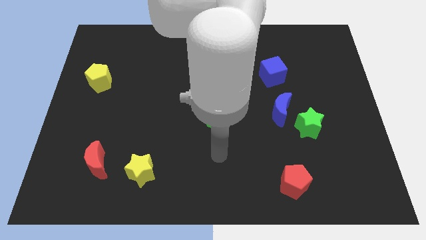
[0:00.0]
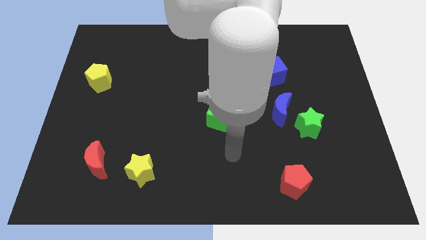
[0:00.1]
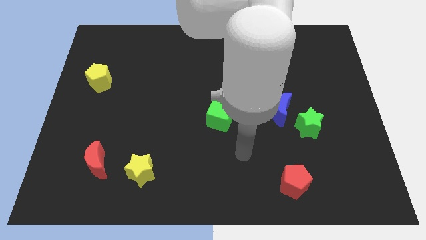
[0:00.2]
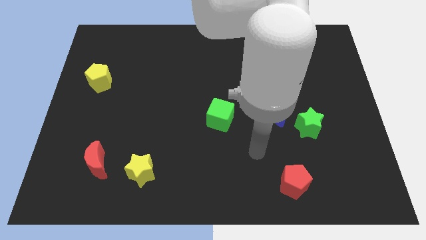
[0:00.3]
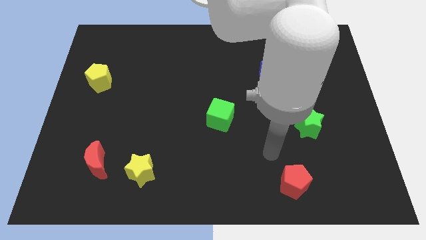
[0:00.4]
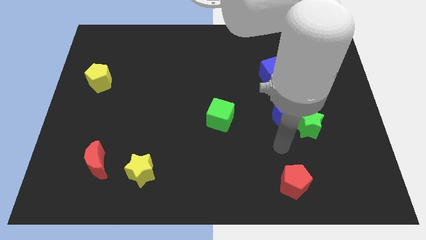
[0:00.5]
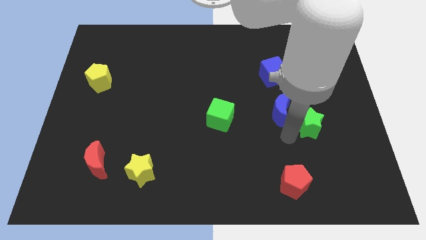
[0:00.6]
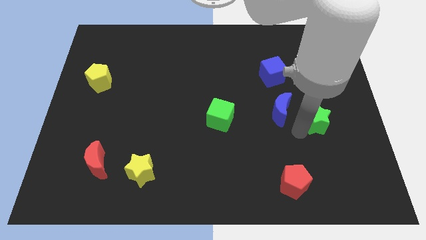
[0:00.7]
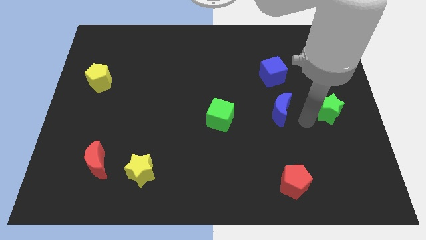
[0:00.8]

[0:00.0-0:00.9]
pull the blue moon apart from the green star

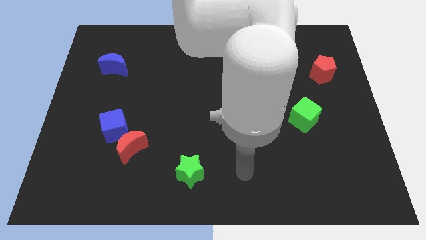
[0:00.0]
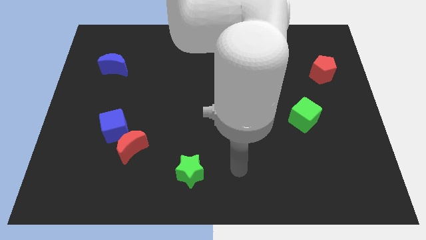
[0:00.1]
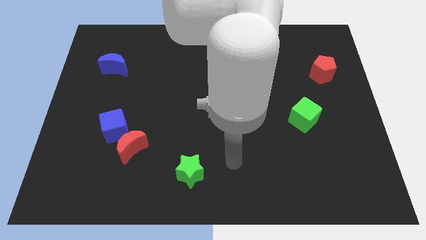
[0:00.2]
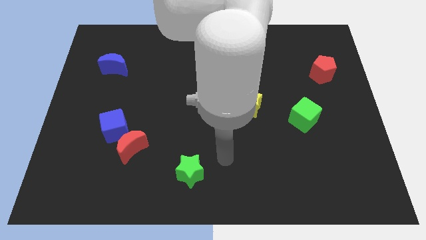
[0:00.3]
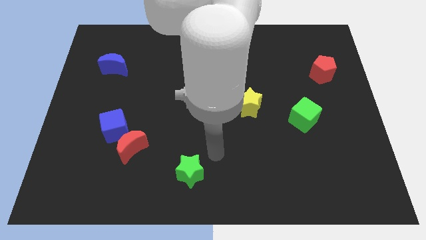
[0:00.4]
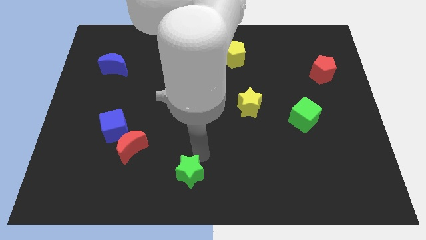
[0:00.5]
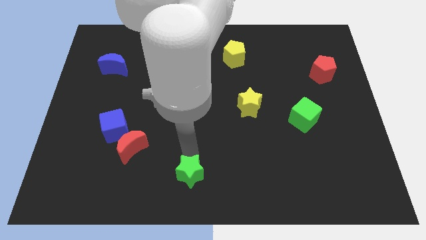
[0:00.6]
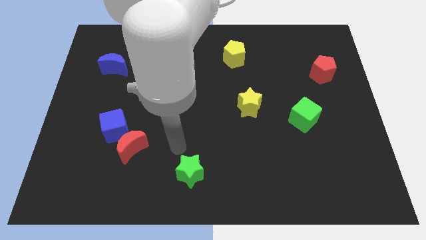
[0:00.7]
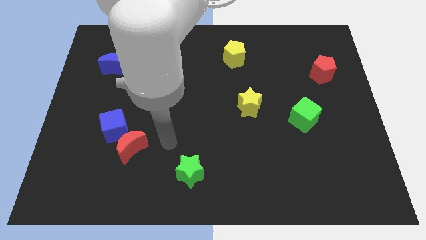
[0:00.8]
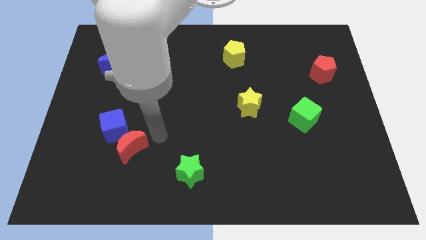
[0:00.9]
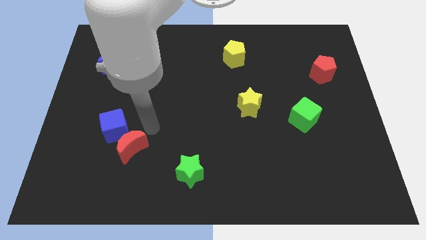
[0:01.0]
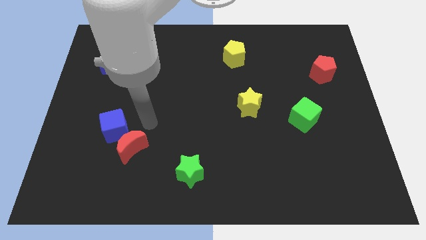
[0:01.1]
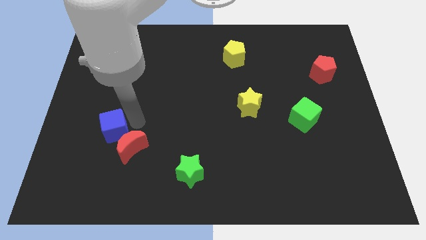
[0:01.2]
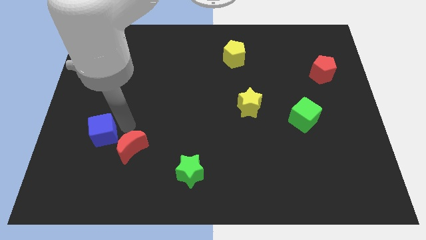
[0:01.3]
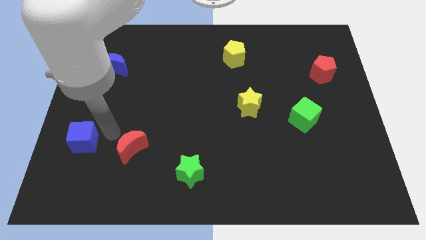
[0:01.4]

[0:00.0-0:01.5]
separate the red moon from the blue cube

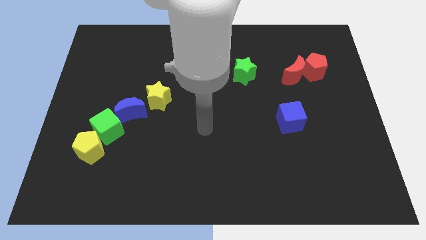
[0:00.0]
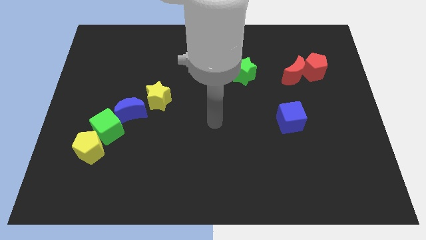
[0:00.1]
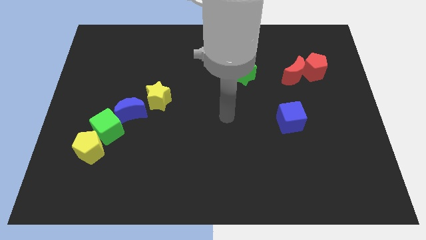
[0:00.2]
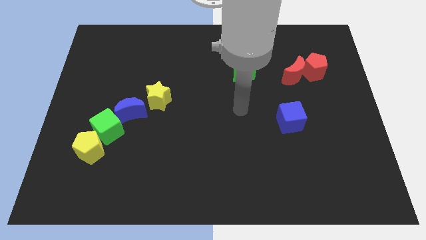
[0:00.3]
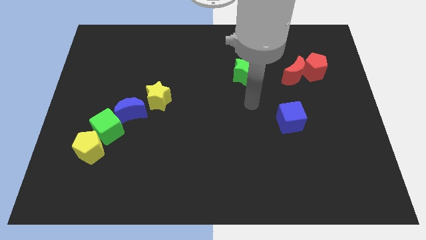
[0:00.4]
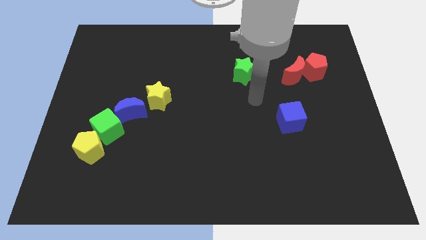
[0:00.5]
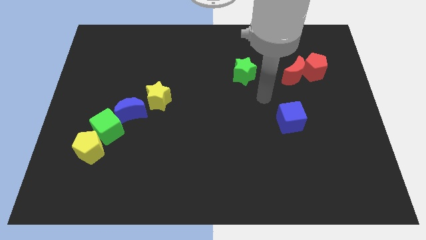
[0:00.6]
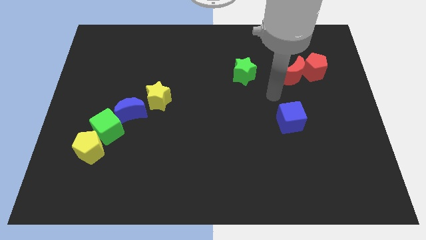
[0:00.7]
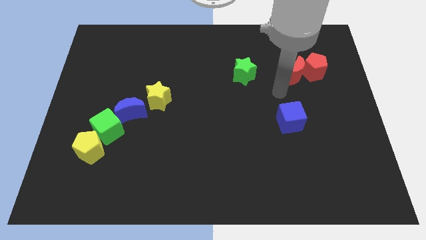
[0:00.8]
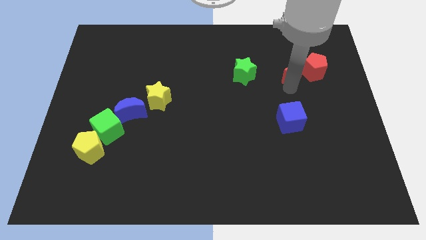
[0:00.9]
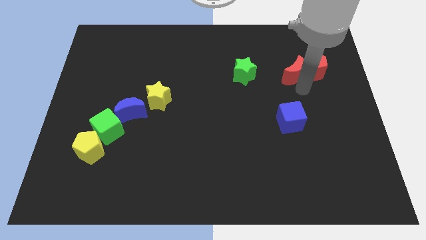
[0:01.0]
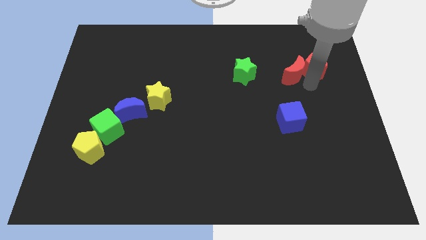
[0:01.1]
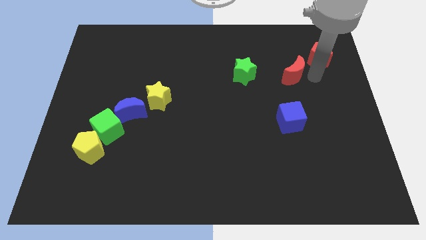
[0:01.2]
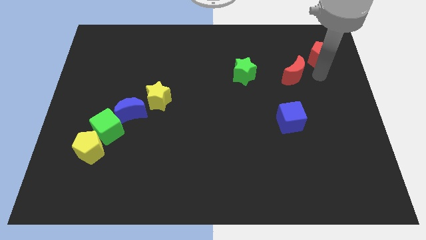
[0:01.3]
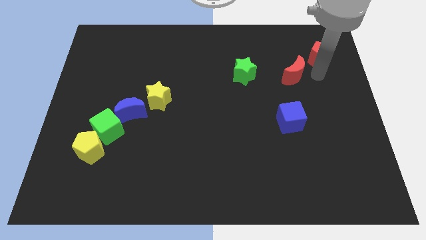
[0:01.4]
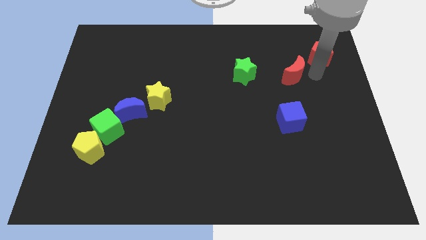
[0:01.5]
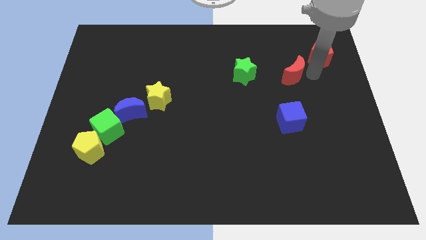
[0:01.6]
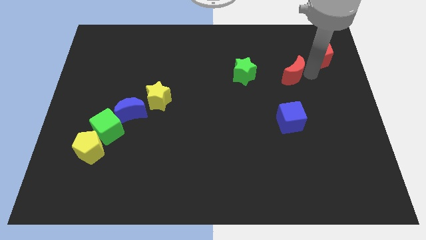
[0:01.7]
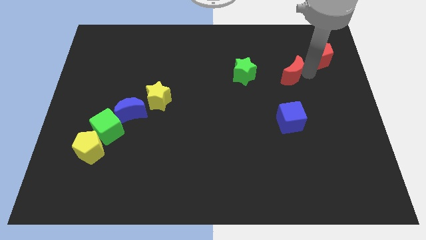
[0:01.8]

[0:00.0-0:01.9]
pull the red moon apart from the red pentagon

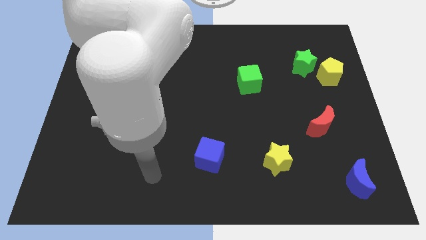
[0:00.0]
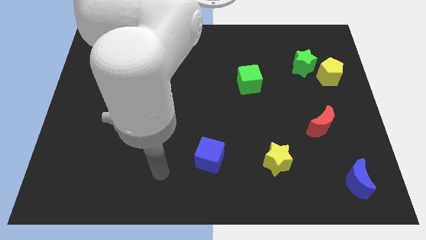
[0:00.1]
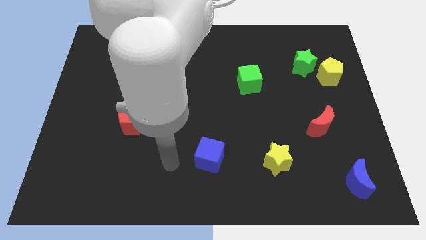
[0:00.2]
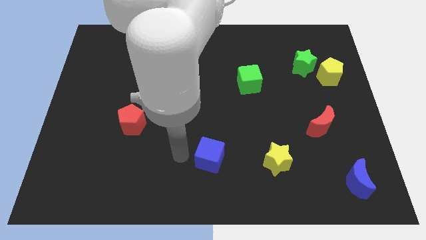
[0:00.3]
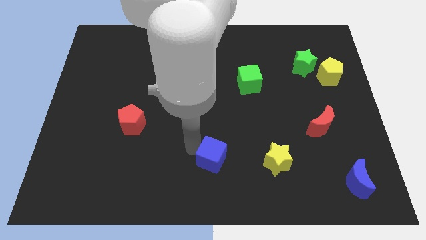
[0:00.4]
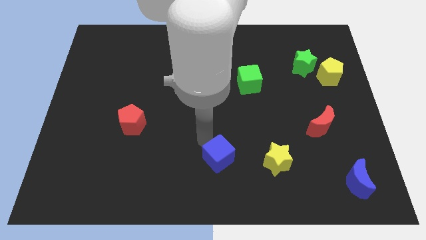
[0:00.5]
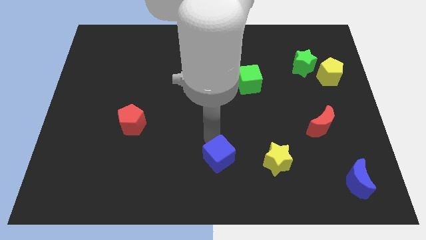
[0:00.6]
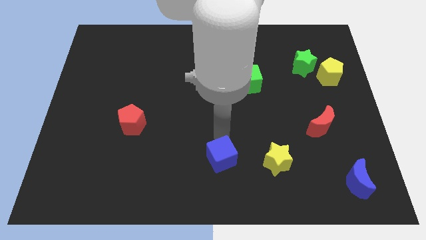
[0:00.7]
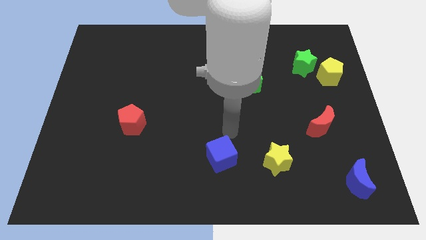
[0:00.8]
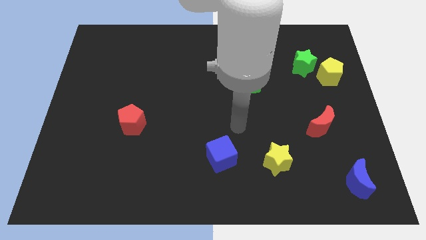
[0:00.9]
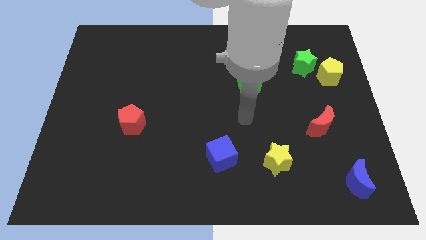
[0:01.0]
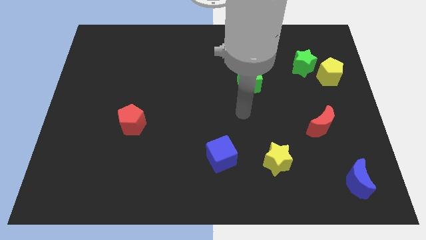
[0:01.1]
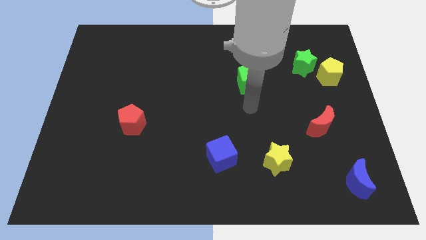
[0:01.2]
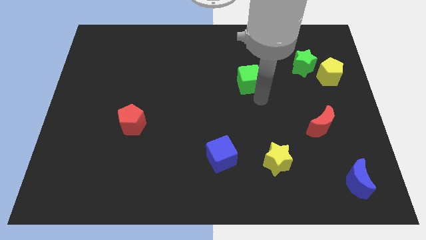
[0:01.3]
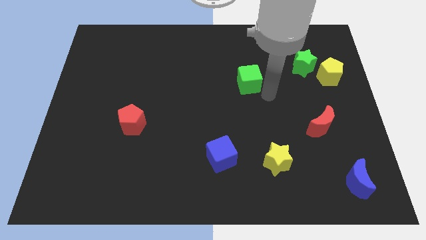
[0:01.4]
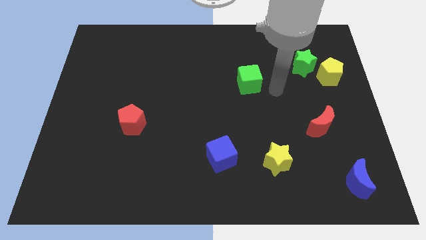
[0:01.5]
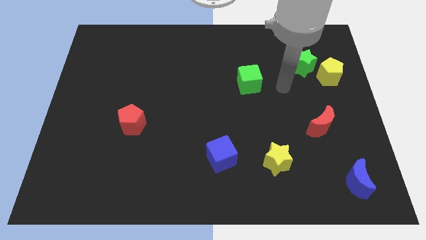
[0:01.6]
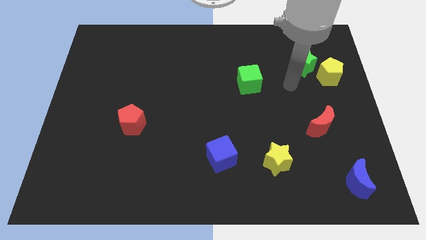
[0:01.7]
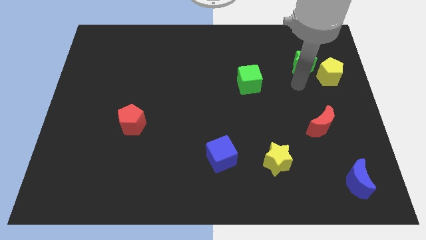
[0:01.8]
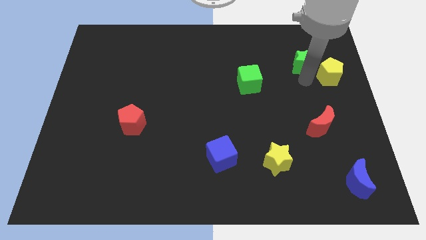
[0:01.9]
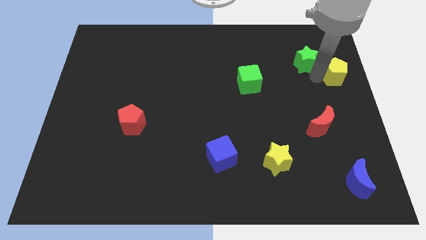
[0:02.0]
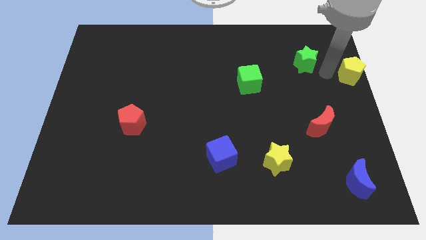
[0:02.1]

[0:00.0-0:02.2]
move the green star away from the yellow pentagon

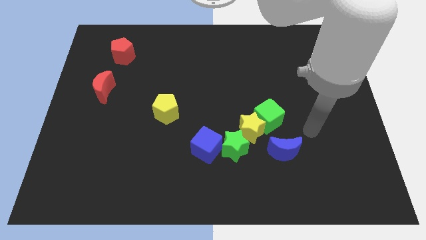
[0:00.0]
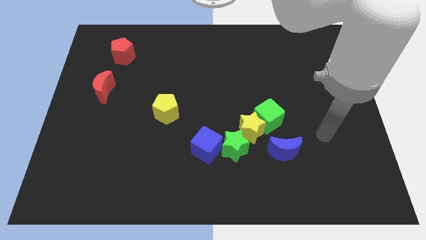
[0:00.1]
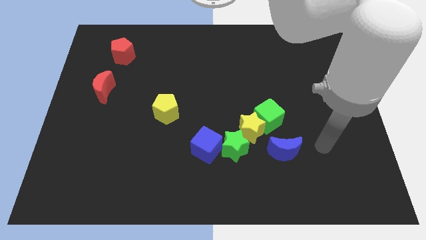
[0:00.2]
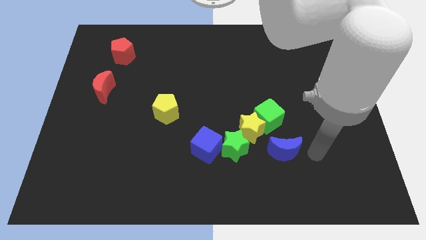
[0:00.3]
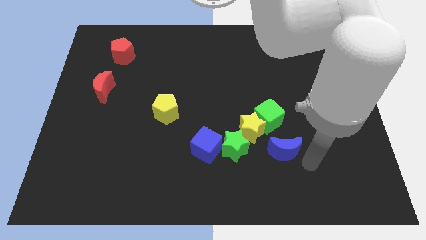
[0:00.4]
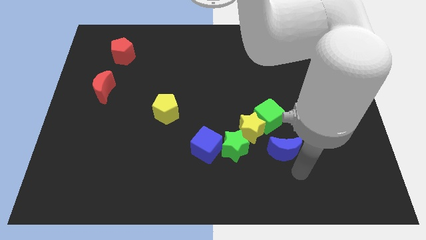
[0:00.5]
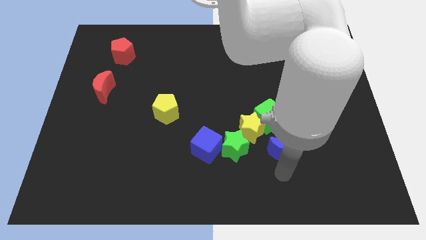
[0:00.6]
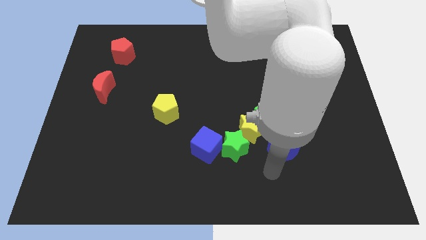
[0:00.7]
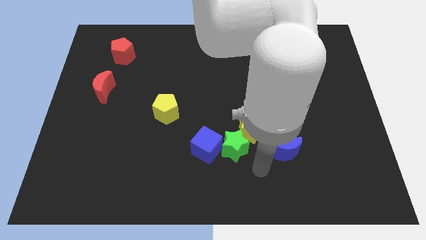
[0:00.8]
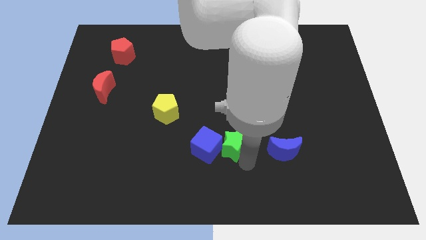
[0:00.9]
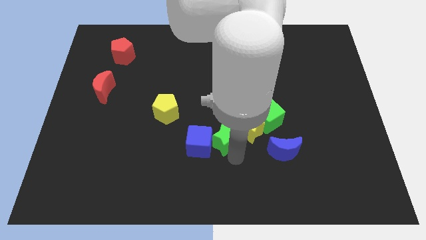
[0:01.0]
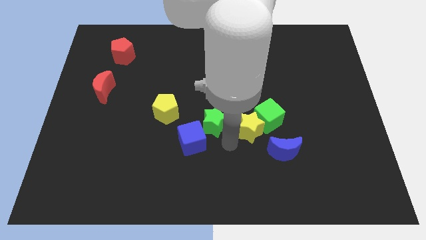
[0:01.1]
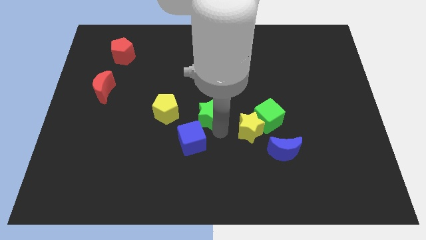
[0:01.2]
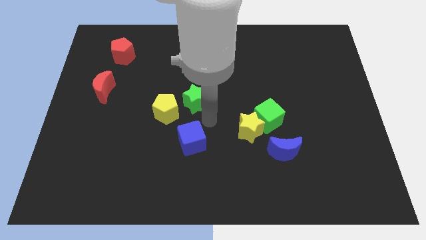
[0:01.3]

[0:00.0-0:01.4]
move the blue cube away from the green star

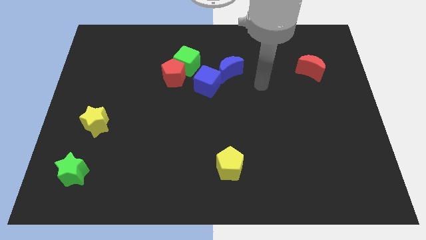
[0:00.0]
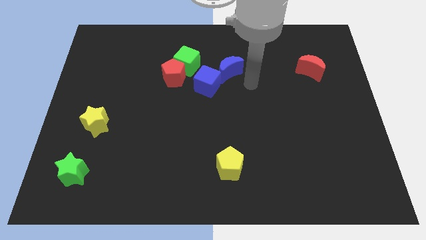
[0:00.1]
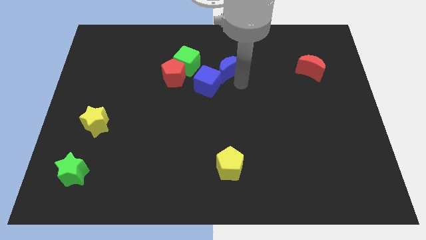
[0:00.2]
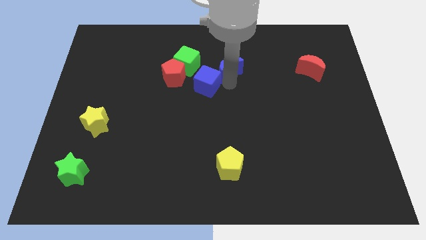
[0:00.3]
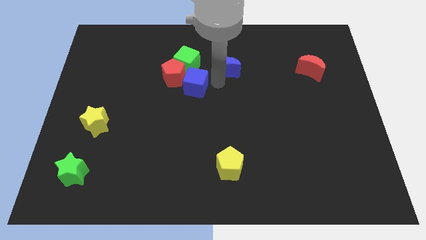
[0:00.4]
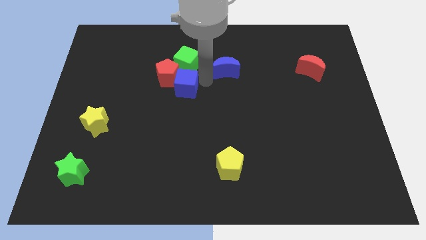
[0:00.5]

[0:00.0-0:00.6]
pull the blue moon apart from the blue cube

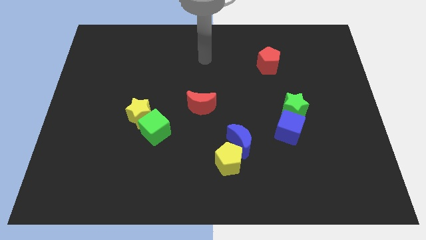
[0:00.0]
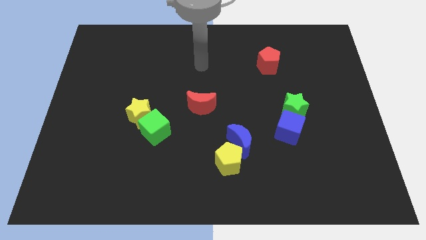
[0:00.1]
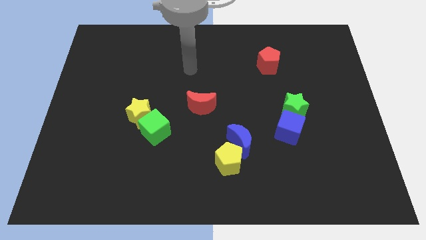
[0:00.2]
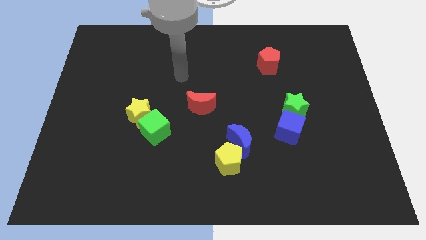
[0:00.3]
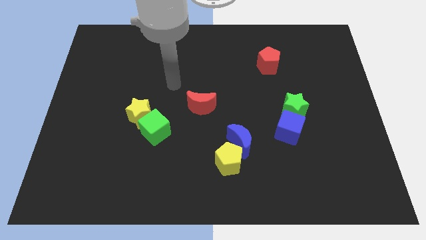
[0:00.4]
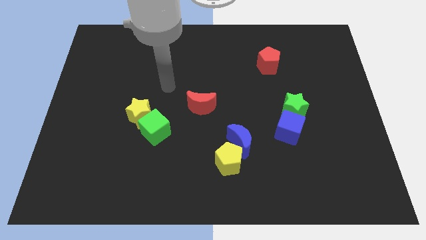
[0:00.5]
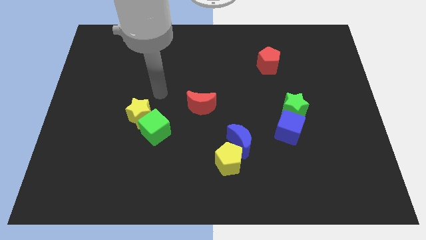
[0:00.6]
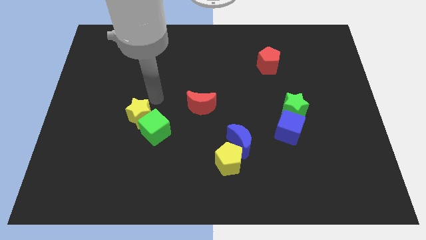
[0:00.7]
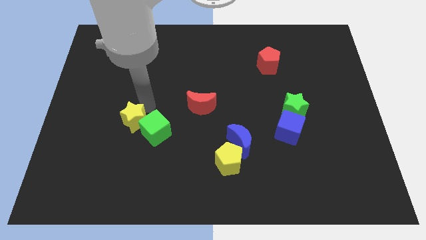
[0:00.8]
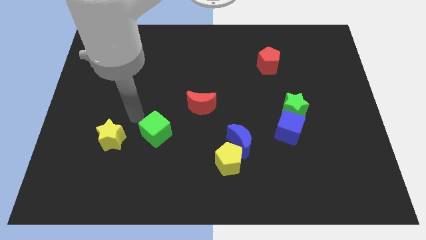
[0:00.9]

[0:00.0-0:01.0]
separate the green cube from the yellow star
